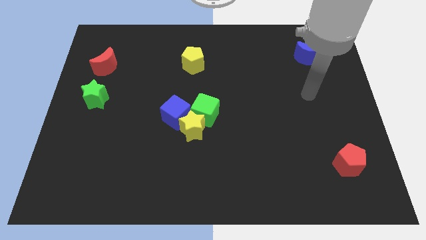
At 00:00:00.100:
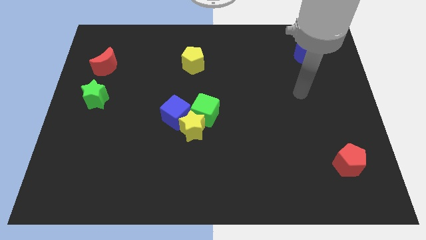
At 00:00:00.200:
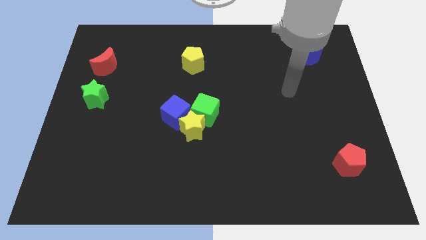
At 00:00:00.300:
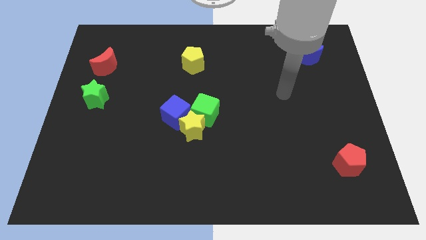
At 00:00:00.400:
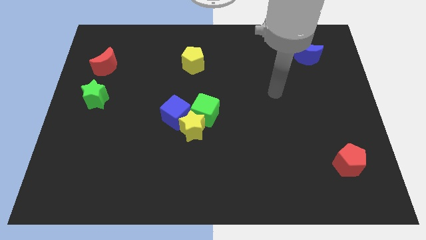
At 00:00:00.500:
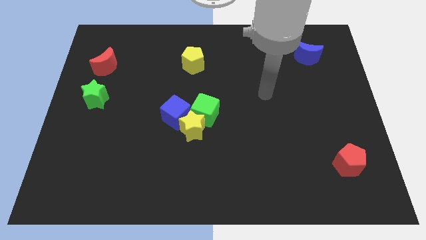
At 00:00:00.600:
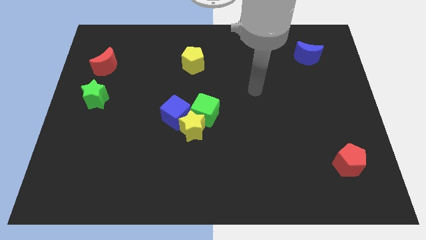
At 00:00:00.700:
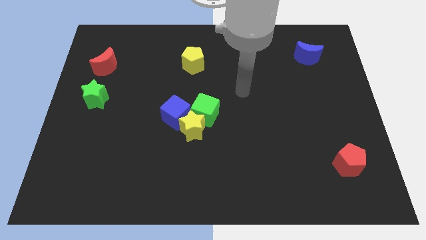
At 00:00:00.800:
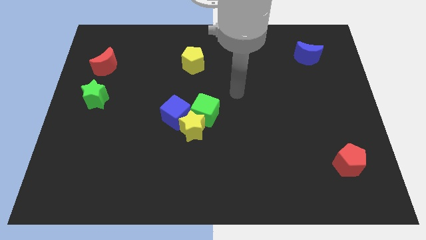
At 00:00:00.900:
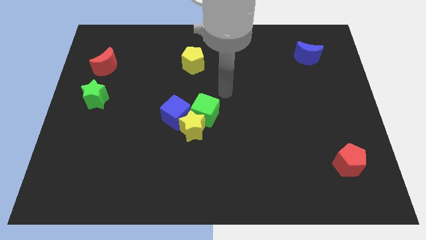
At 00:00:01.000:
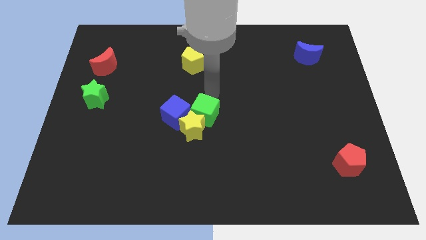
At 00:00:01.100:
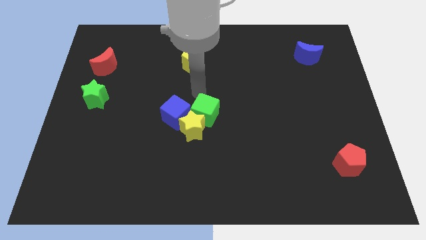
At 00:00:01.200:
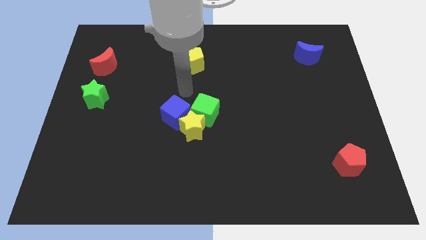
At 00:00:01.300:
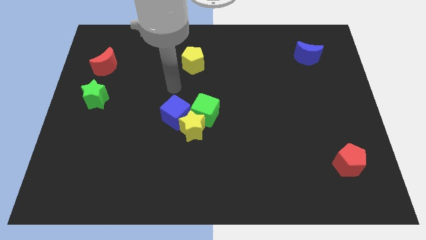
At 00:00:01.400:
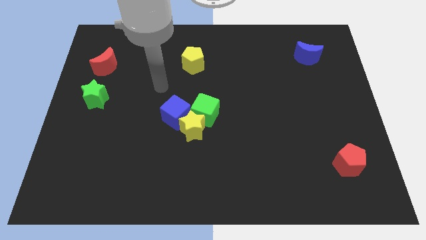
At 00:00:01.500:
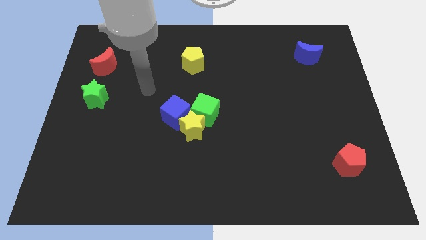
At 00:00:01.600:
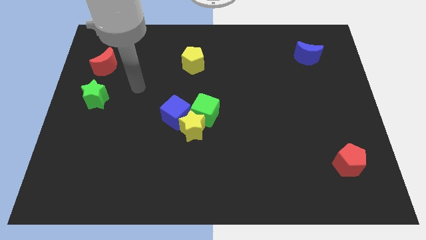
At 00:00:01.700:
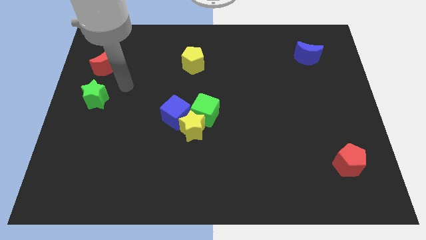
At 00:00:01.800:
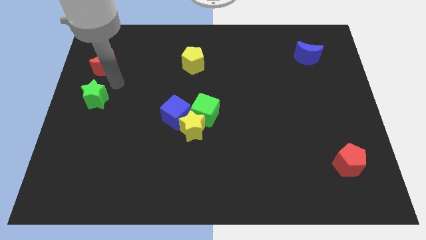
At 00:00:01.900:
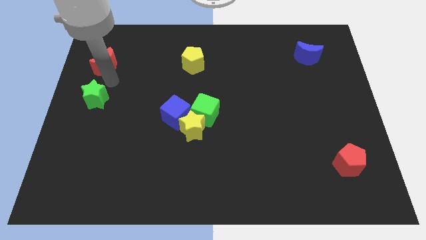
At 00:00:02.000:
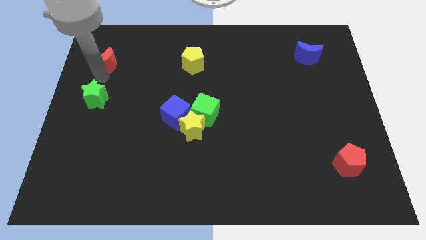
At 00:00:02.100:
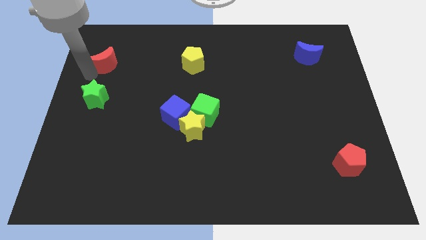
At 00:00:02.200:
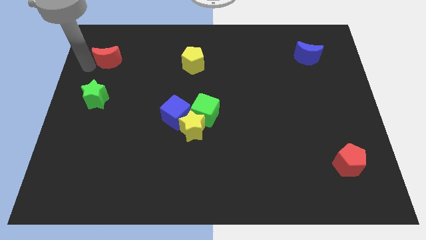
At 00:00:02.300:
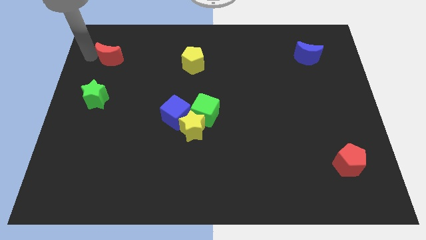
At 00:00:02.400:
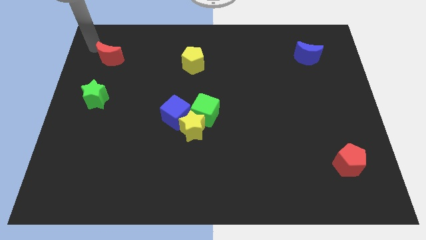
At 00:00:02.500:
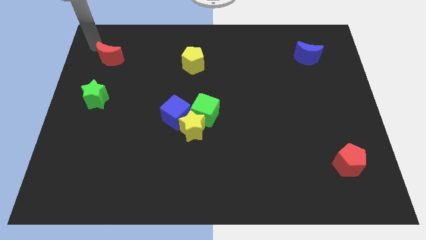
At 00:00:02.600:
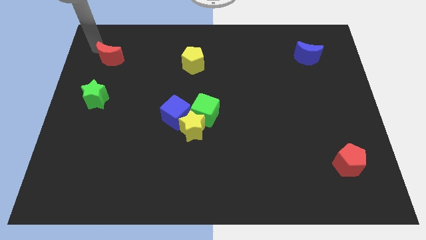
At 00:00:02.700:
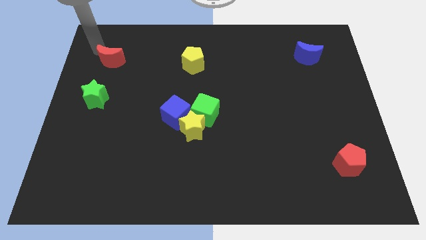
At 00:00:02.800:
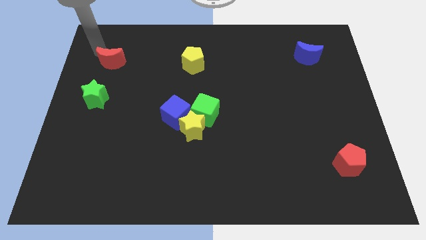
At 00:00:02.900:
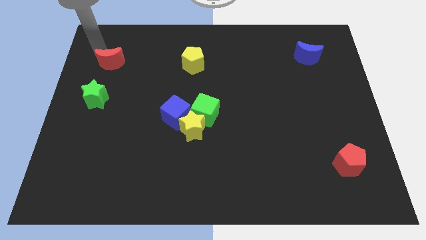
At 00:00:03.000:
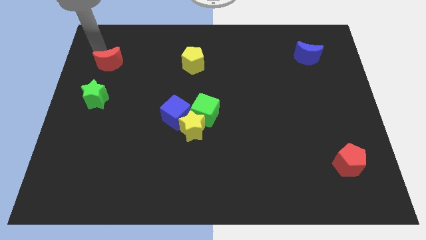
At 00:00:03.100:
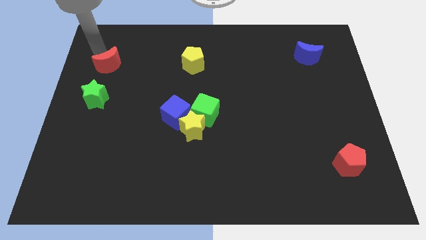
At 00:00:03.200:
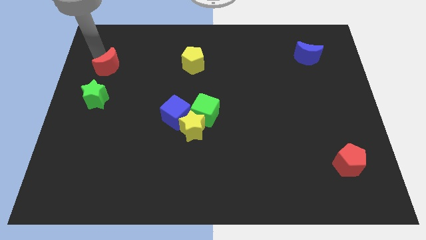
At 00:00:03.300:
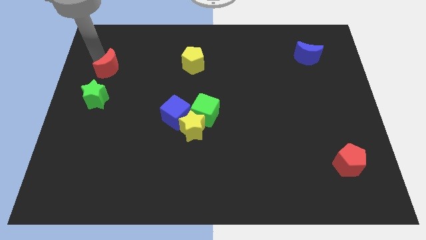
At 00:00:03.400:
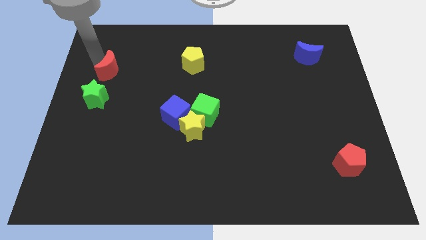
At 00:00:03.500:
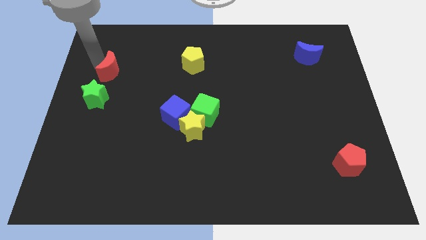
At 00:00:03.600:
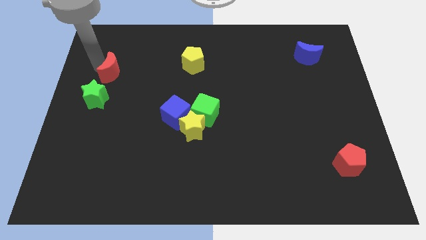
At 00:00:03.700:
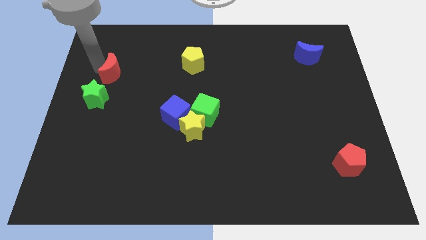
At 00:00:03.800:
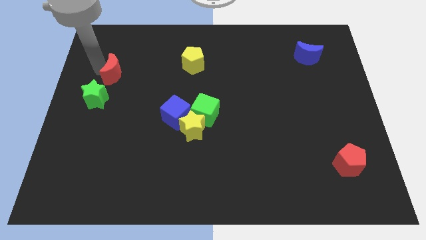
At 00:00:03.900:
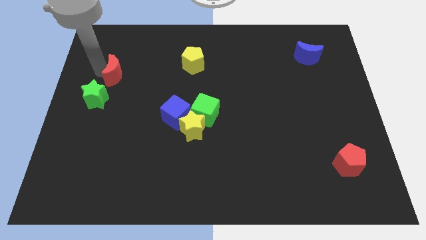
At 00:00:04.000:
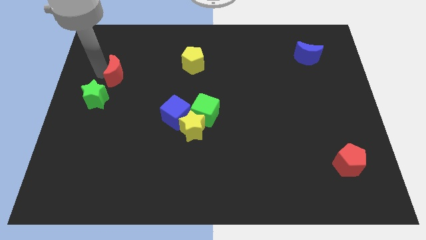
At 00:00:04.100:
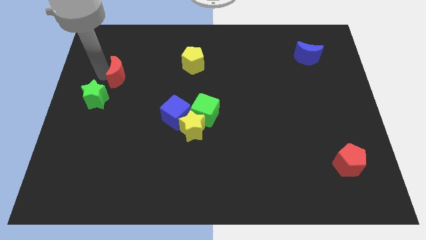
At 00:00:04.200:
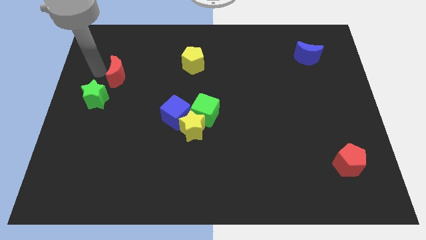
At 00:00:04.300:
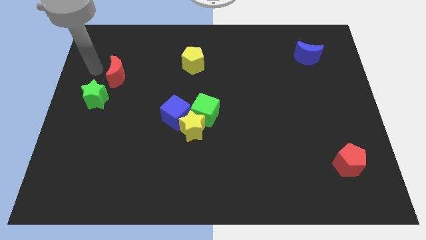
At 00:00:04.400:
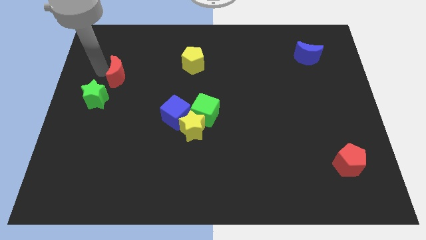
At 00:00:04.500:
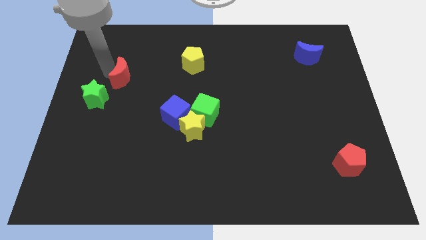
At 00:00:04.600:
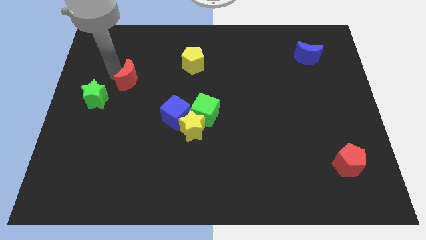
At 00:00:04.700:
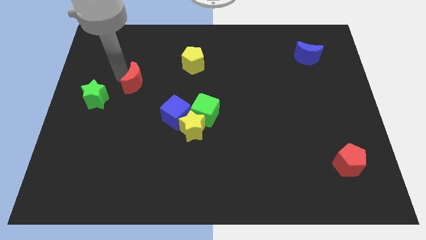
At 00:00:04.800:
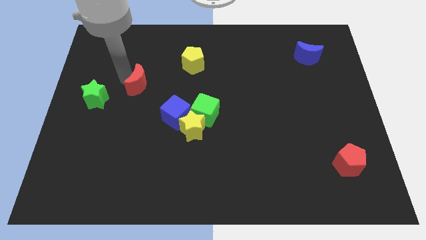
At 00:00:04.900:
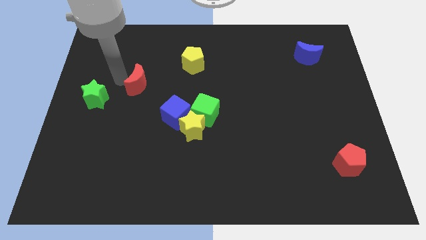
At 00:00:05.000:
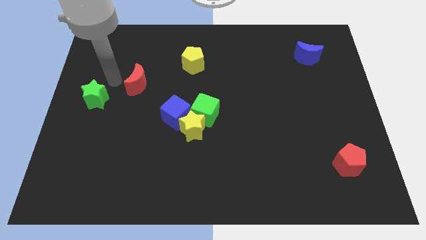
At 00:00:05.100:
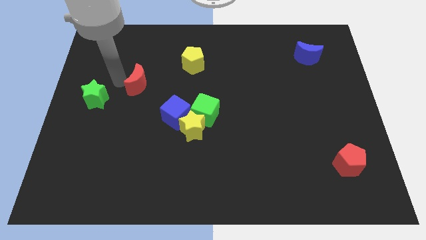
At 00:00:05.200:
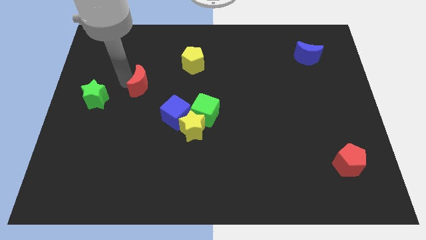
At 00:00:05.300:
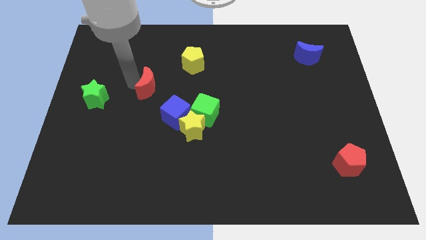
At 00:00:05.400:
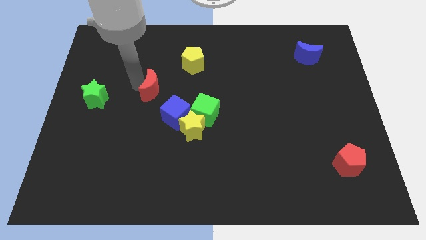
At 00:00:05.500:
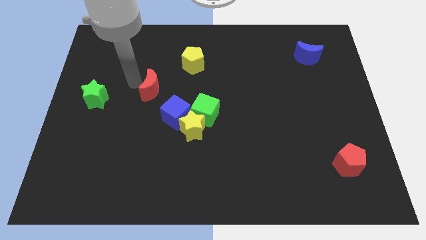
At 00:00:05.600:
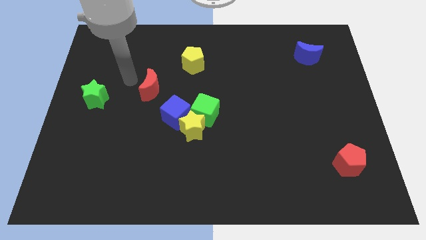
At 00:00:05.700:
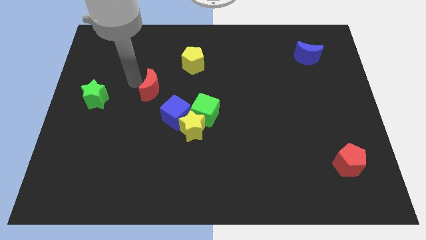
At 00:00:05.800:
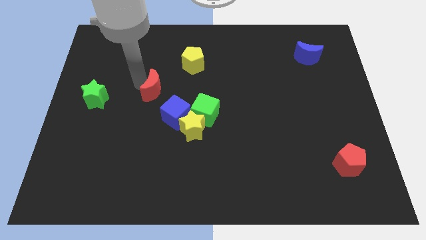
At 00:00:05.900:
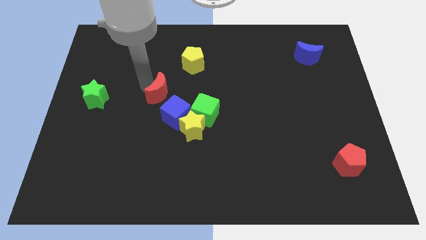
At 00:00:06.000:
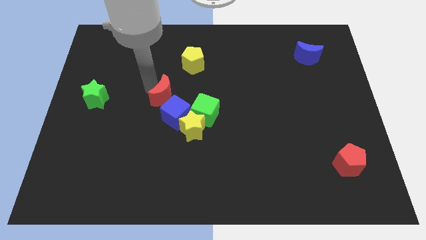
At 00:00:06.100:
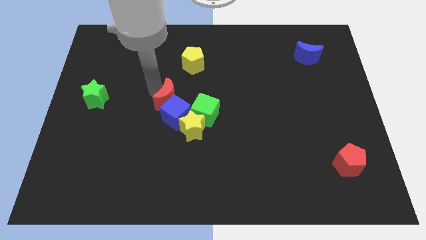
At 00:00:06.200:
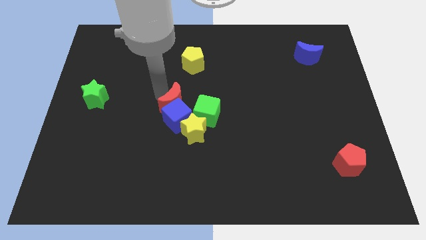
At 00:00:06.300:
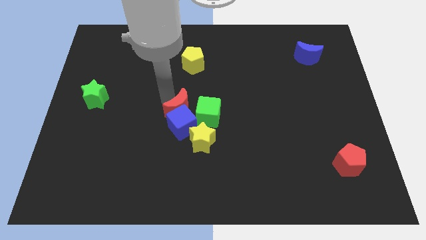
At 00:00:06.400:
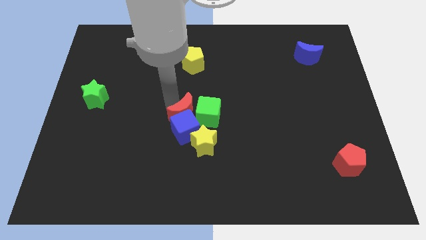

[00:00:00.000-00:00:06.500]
slide the red moon to the green cube

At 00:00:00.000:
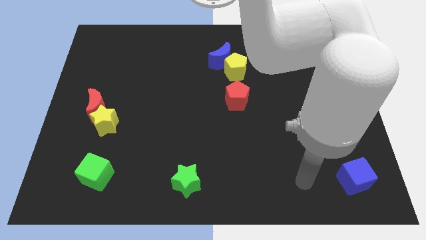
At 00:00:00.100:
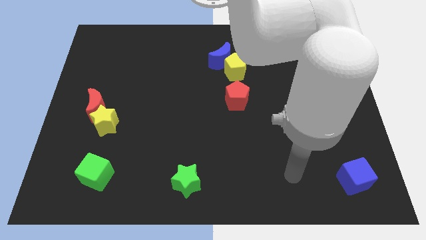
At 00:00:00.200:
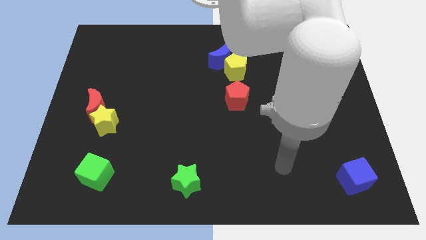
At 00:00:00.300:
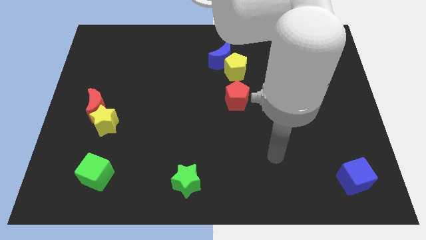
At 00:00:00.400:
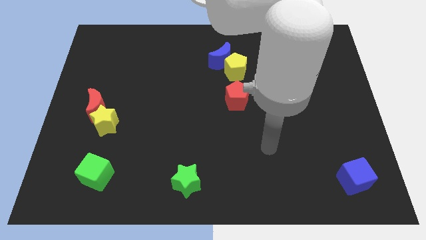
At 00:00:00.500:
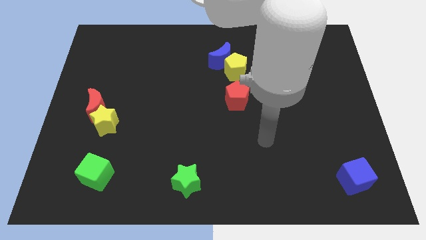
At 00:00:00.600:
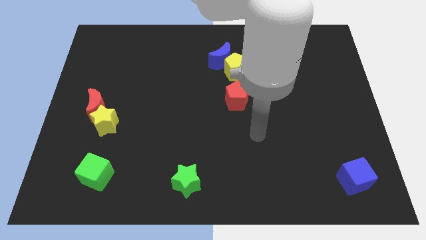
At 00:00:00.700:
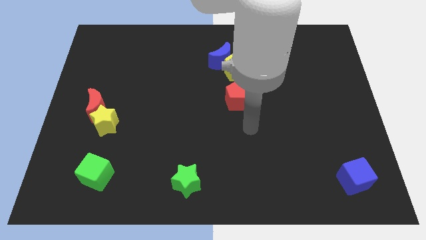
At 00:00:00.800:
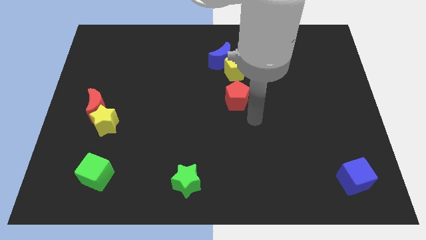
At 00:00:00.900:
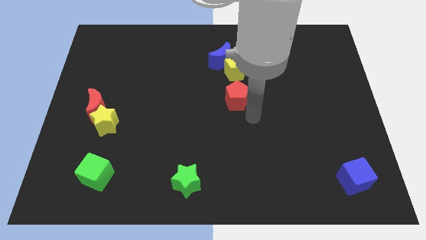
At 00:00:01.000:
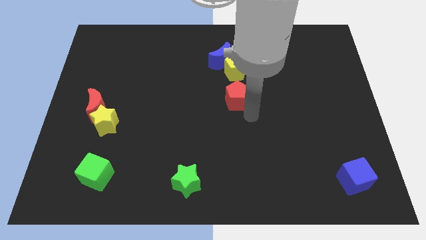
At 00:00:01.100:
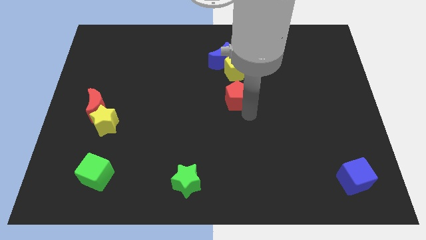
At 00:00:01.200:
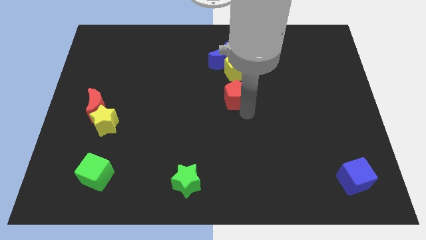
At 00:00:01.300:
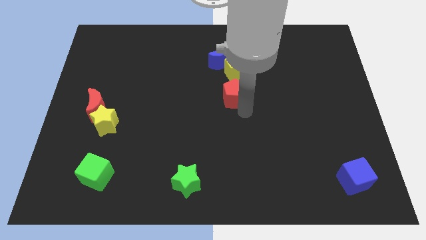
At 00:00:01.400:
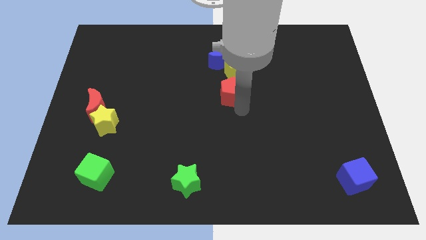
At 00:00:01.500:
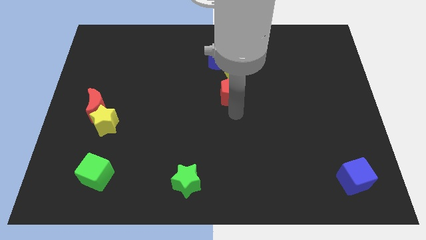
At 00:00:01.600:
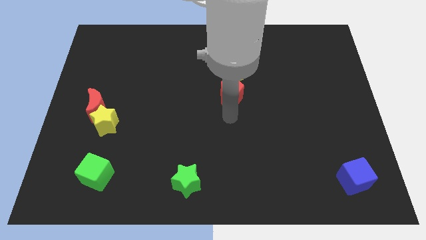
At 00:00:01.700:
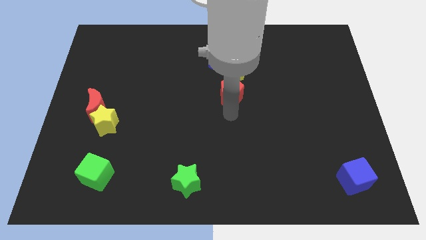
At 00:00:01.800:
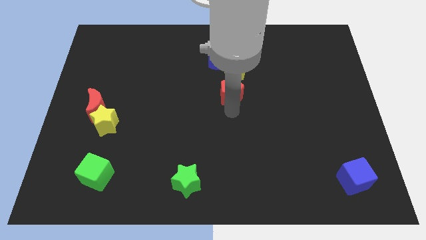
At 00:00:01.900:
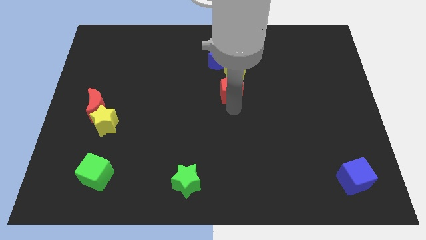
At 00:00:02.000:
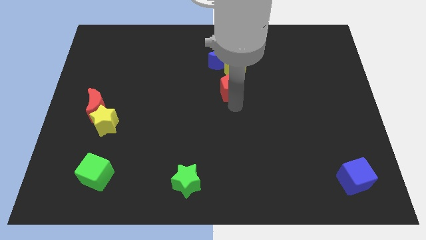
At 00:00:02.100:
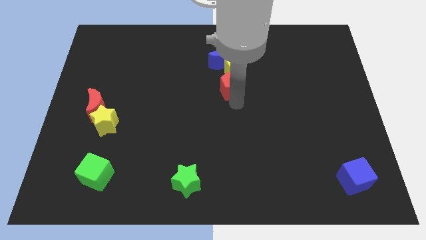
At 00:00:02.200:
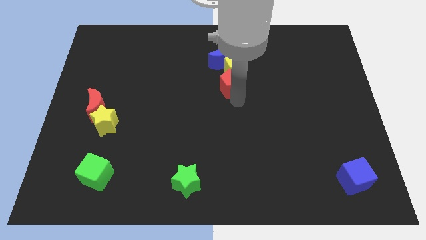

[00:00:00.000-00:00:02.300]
slide the red pentagon to the yellow pentagon
